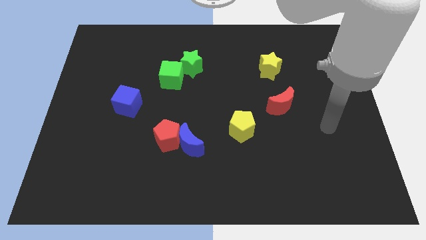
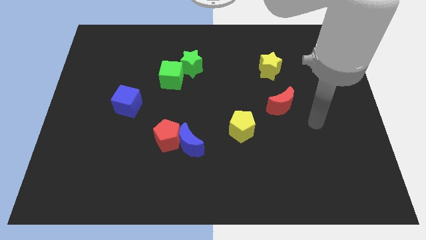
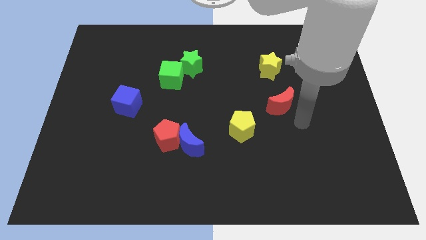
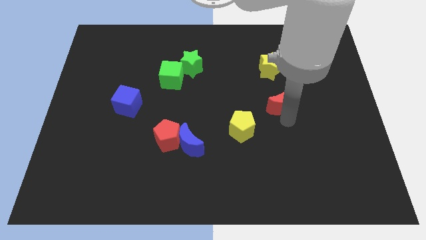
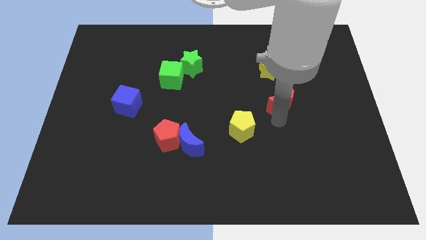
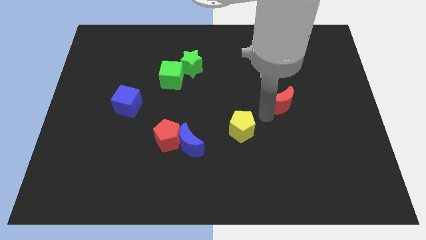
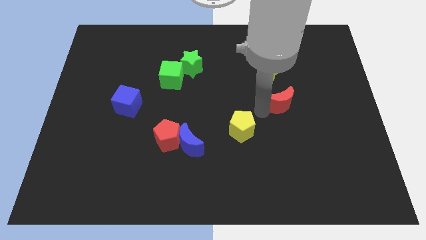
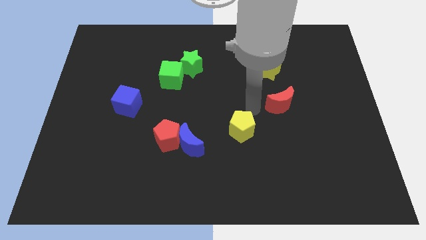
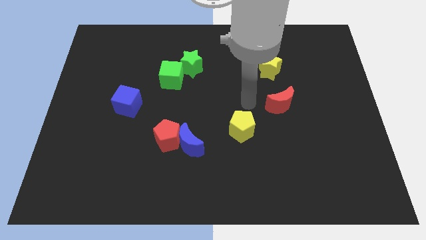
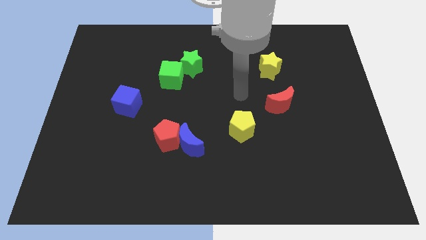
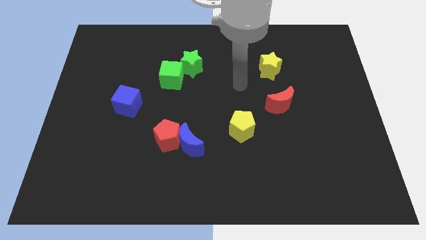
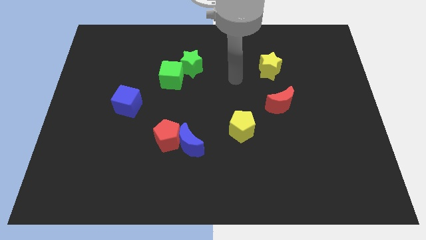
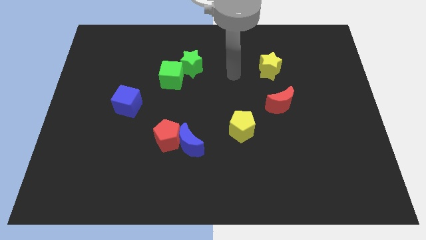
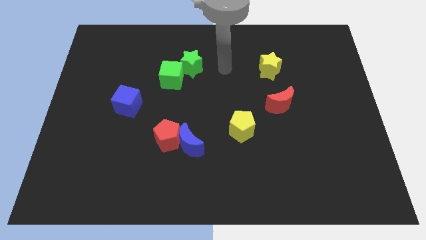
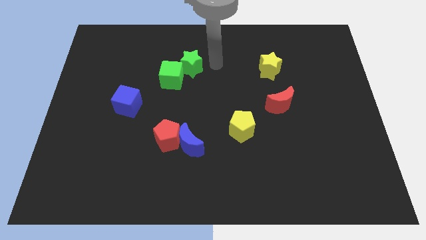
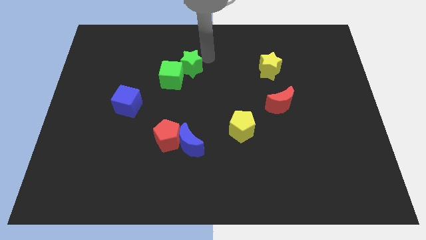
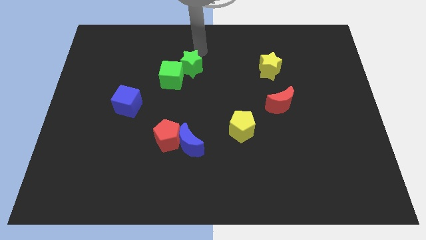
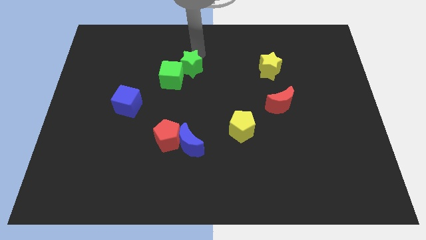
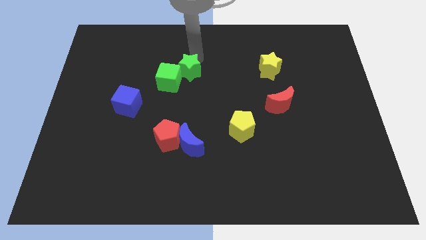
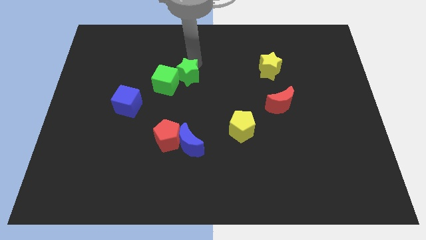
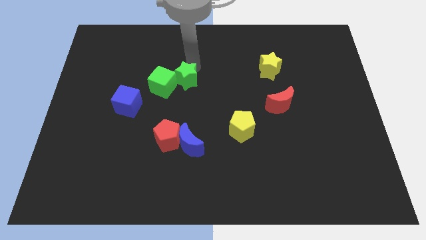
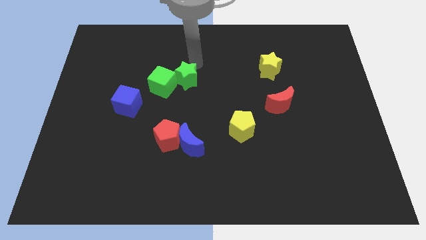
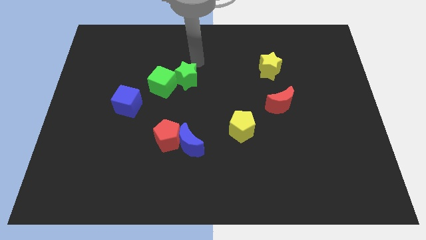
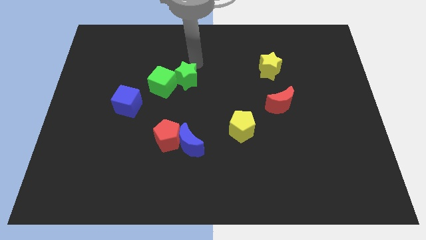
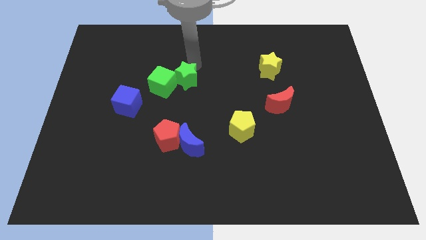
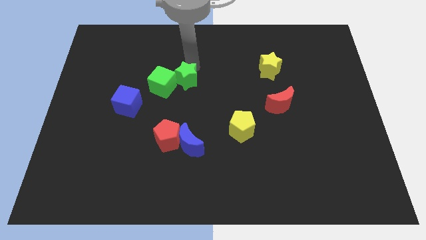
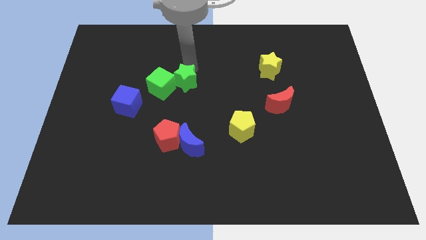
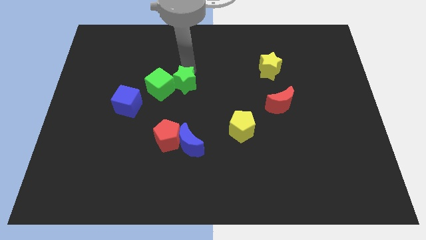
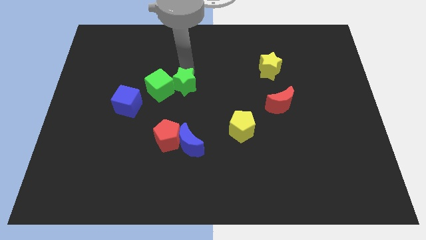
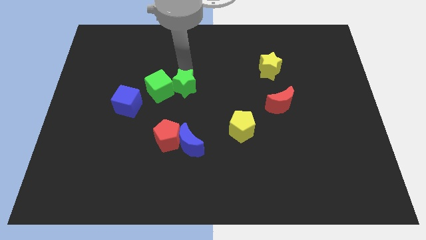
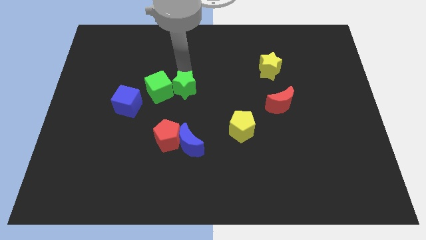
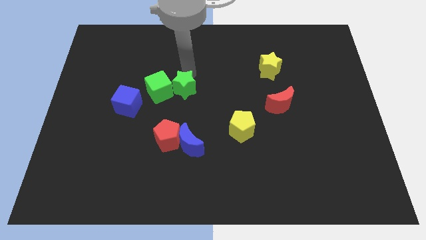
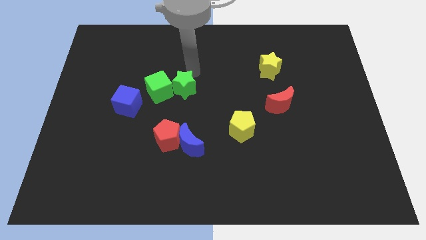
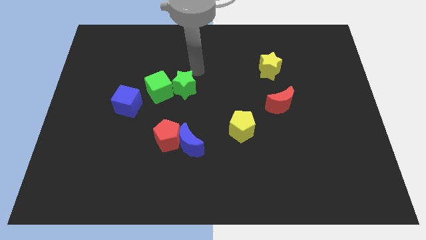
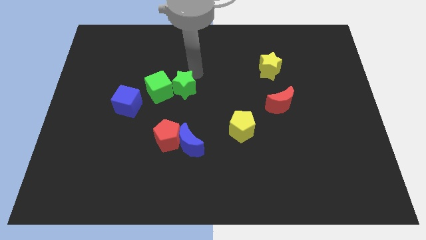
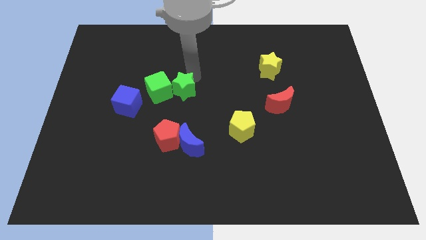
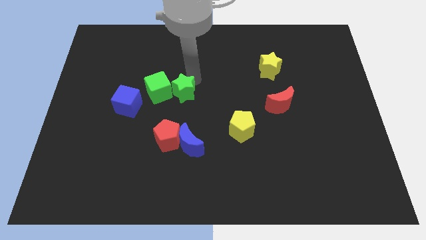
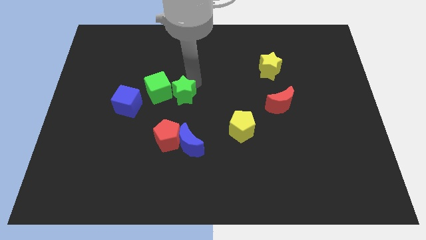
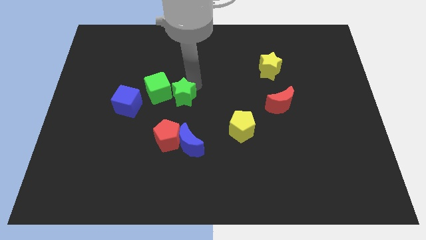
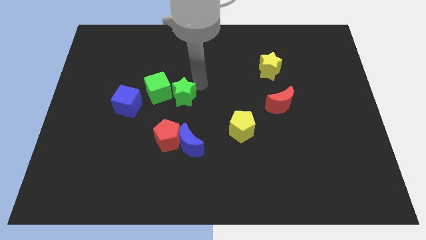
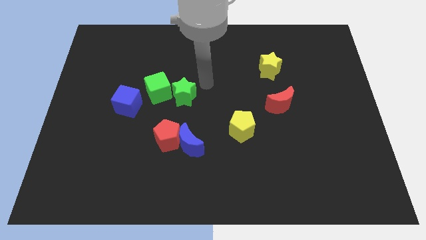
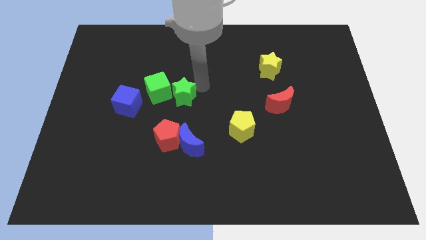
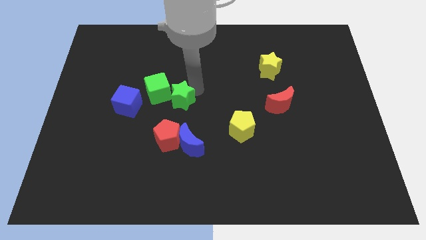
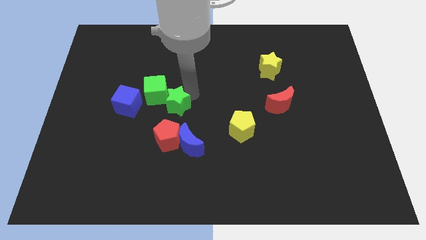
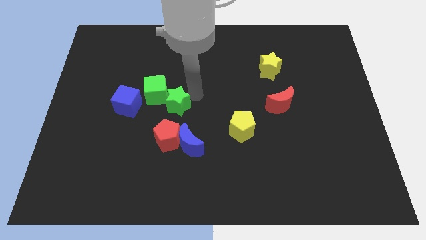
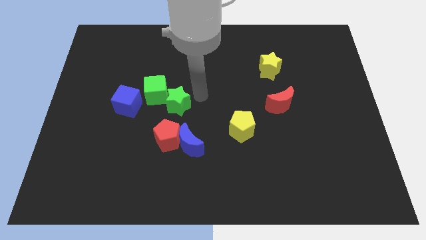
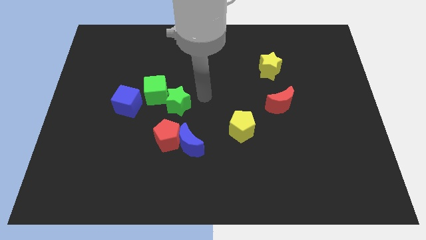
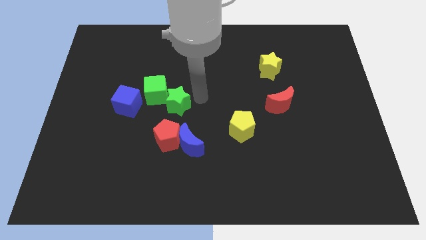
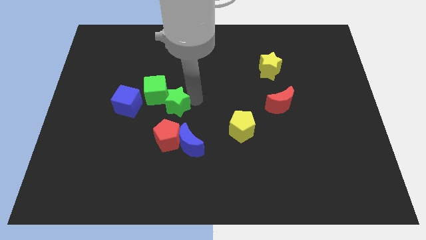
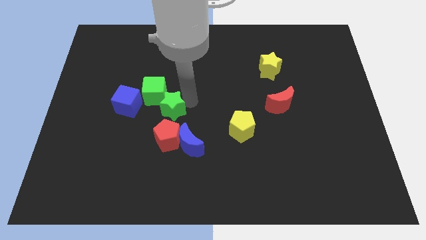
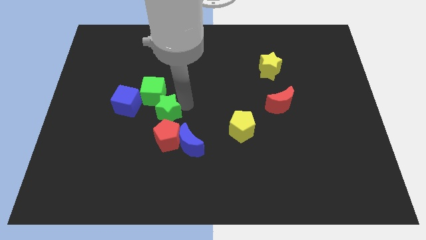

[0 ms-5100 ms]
slide the green star diagonally up and to the left of the red pentagon

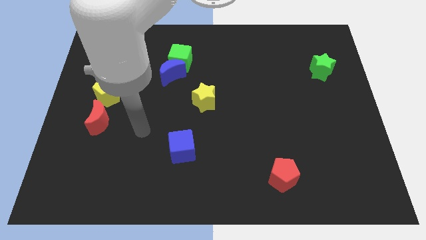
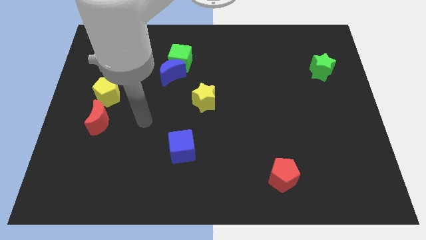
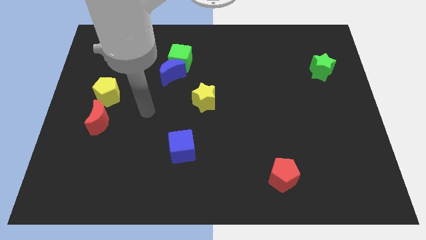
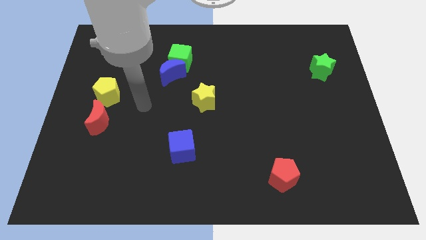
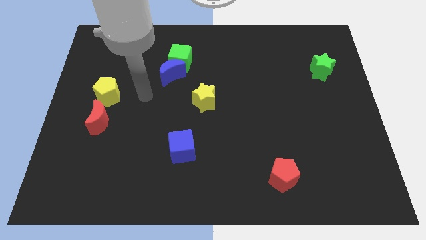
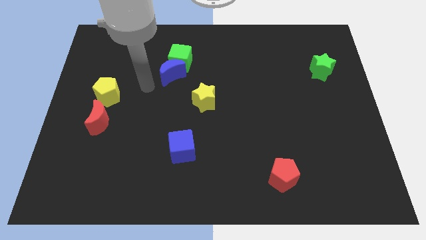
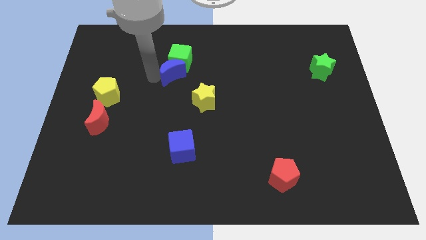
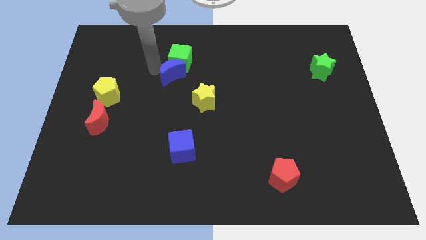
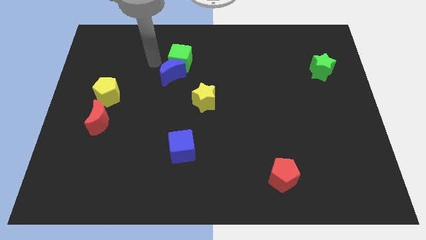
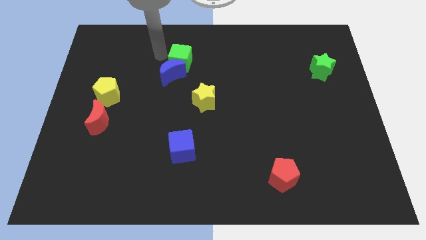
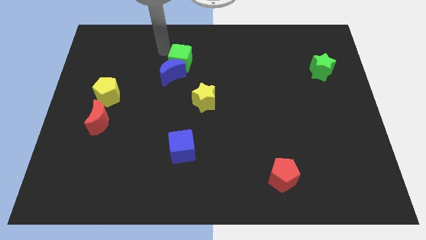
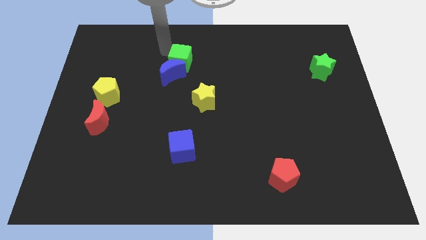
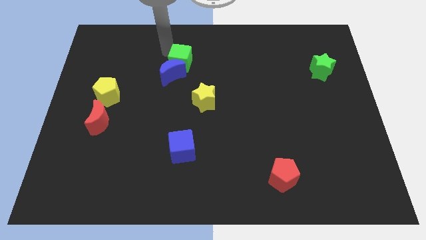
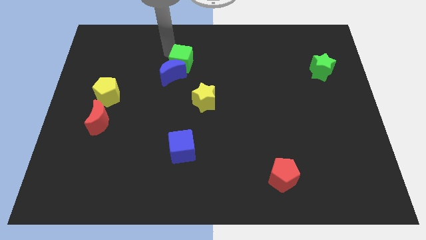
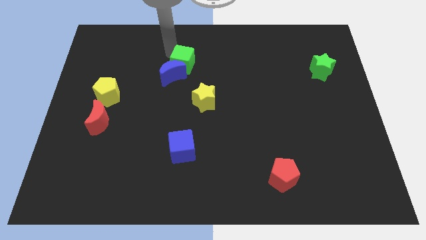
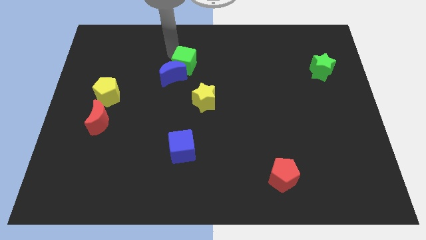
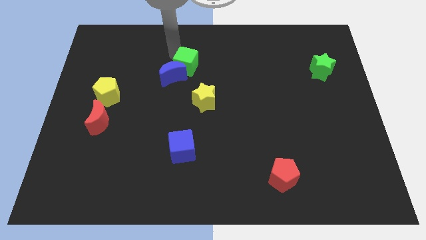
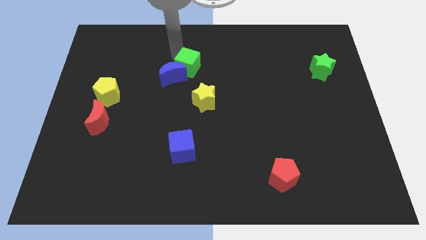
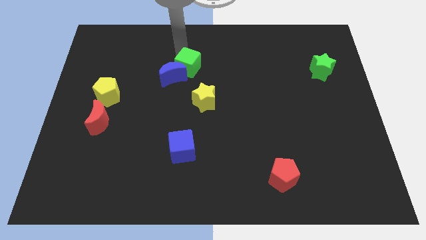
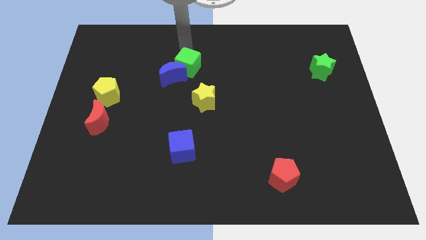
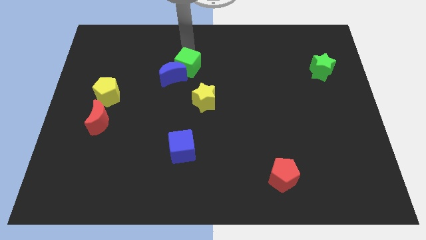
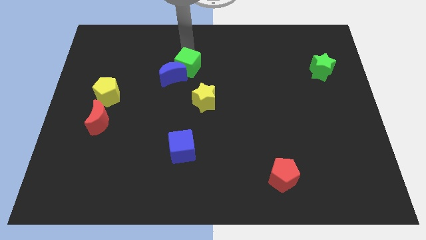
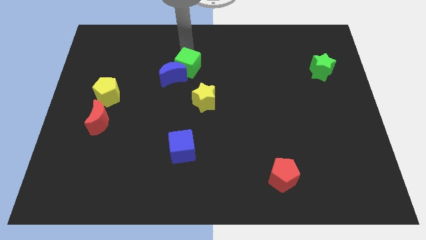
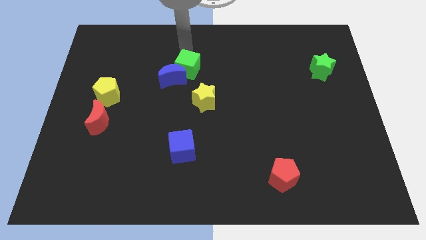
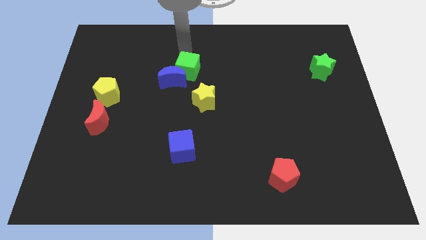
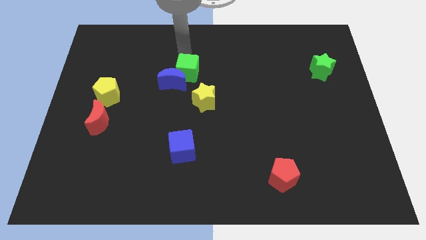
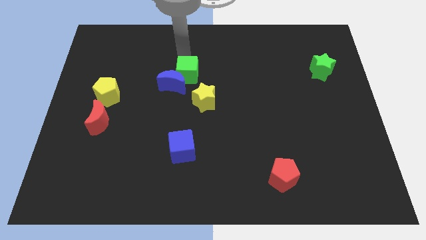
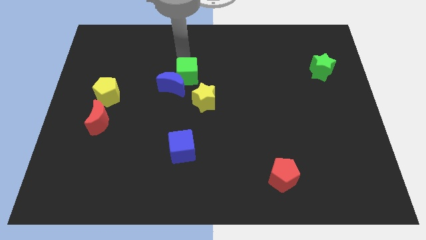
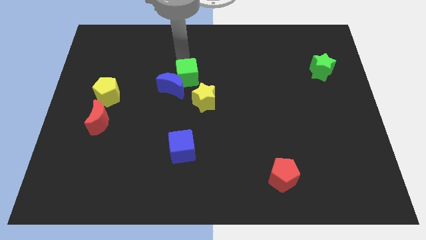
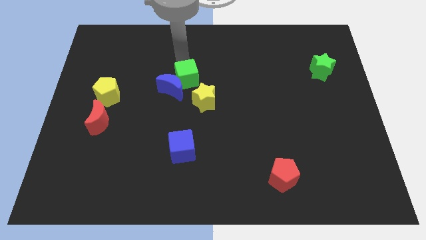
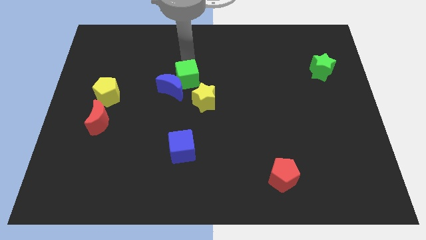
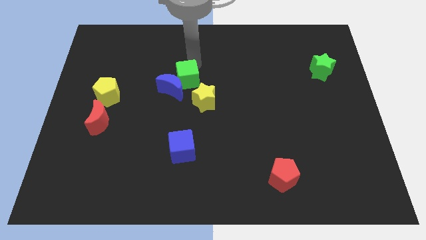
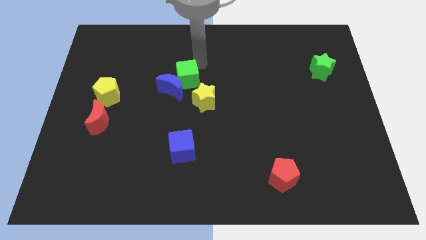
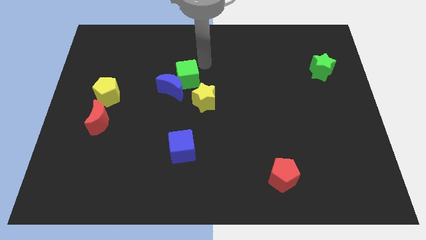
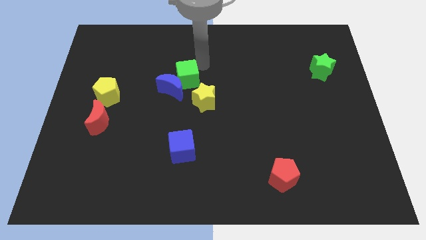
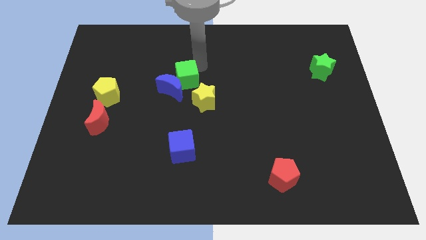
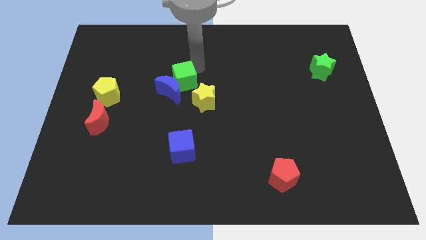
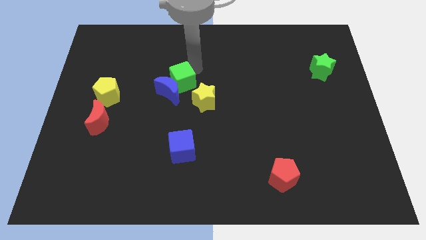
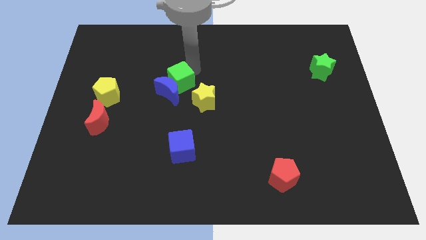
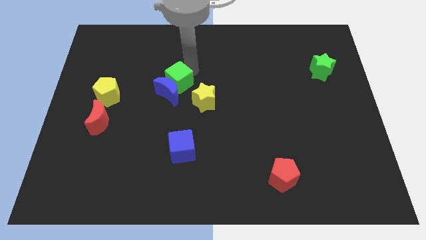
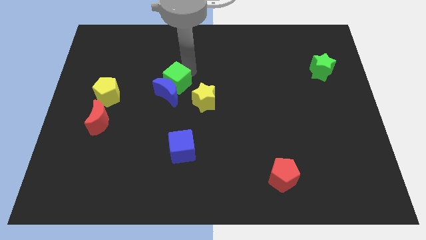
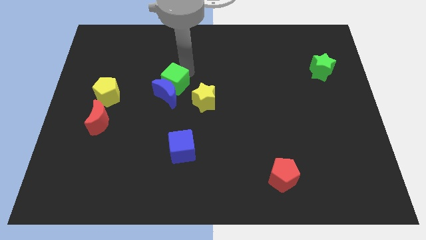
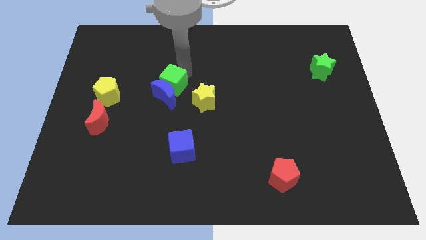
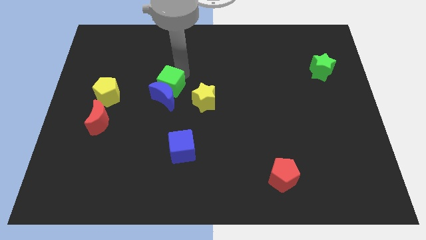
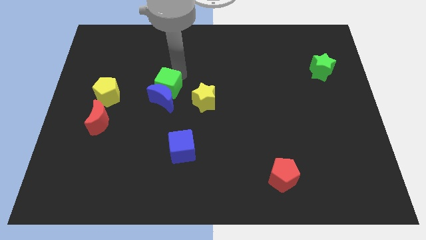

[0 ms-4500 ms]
move the green cube just left of the yellow star
